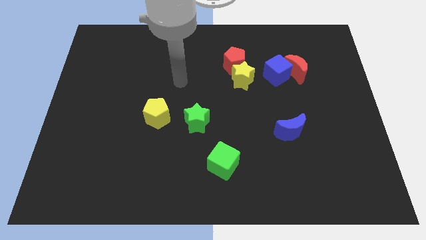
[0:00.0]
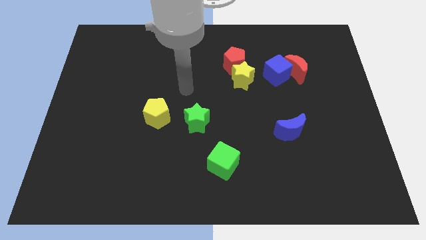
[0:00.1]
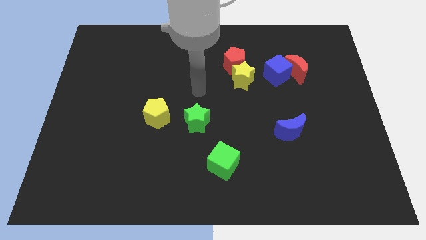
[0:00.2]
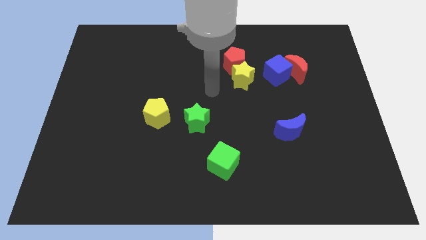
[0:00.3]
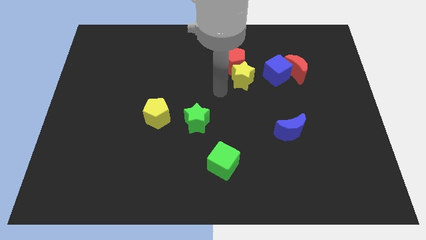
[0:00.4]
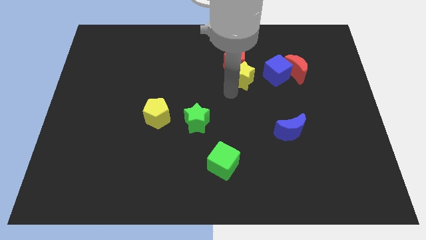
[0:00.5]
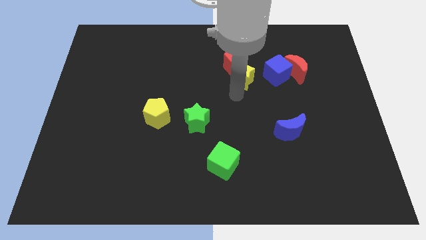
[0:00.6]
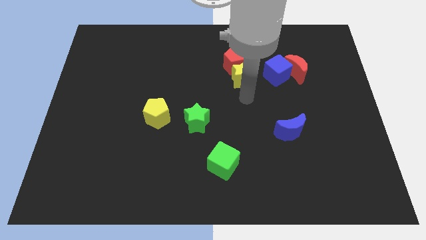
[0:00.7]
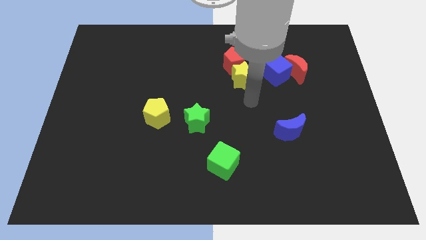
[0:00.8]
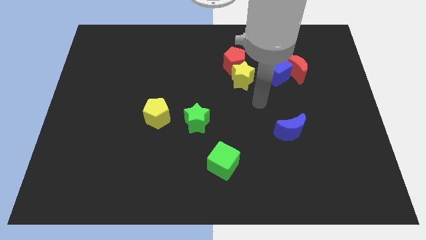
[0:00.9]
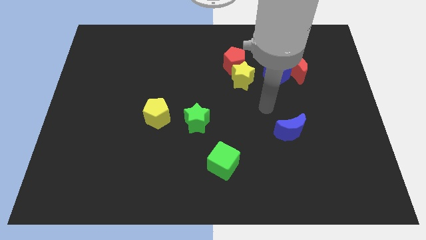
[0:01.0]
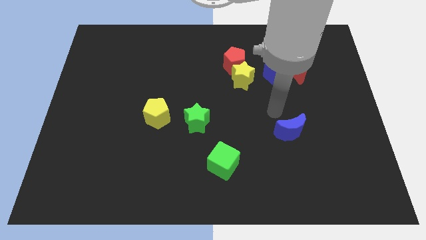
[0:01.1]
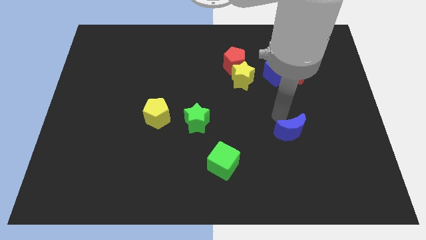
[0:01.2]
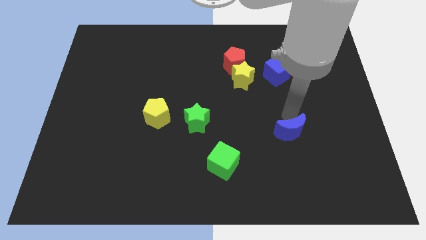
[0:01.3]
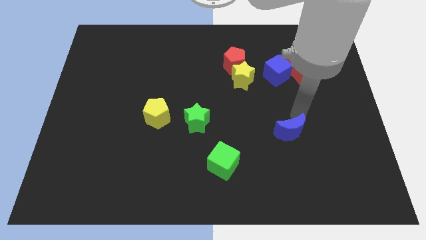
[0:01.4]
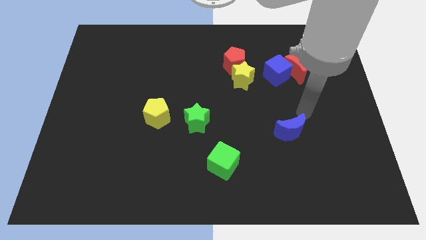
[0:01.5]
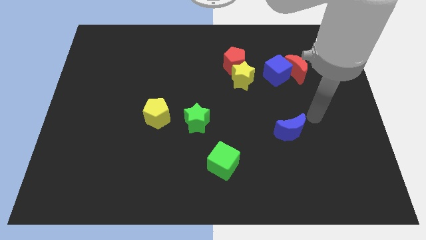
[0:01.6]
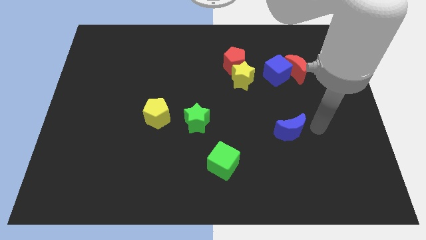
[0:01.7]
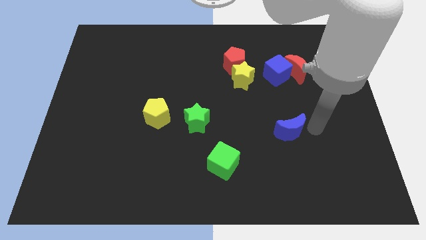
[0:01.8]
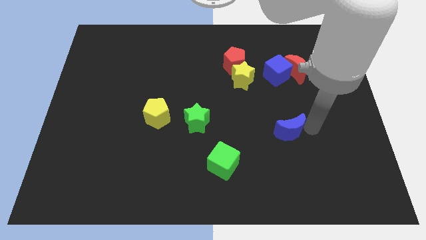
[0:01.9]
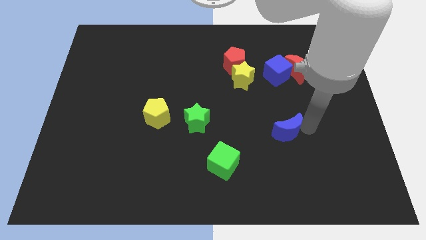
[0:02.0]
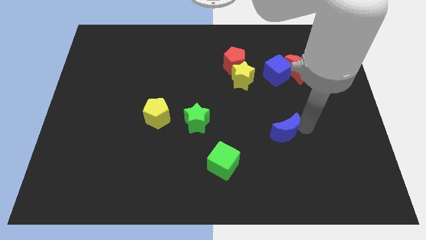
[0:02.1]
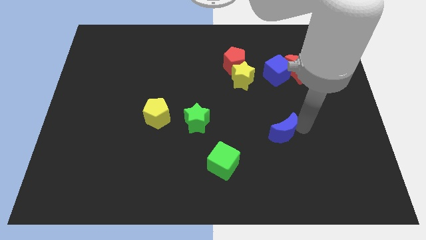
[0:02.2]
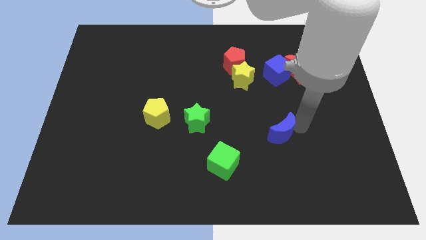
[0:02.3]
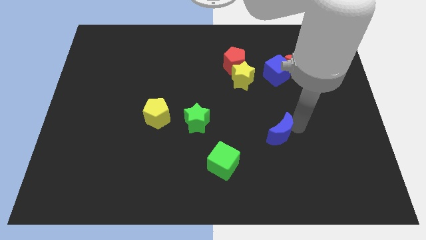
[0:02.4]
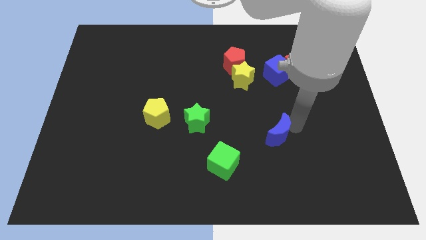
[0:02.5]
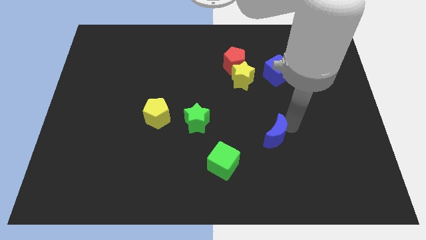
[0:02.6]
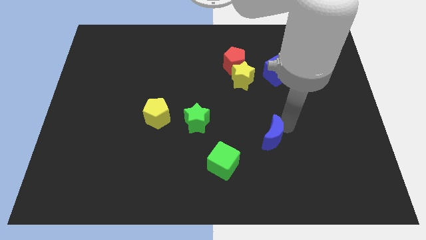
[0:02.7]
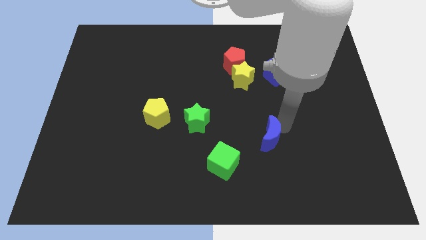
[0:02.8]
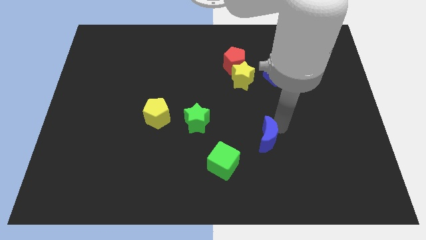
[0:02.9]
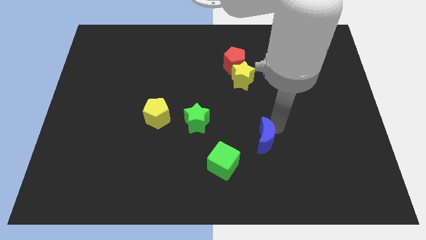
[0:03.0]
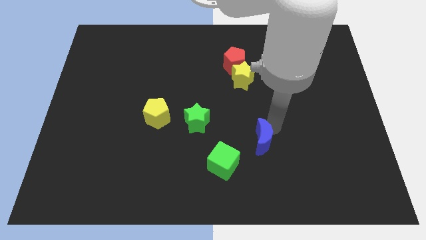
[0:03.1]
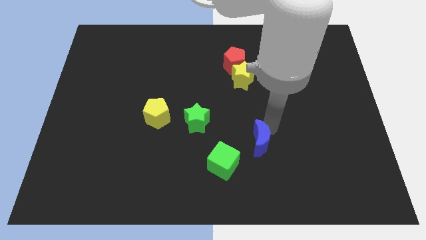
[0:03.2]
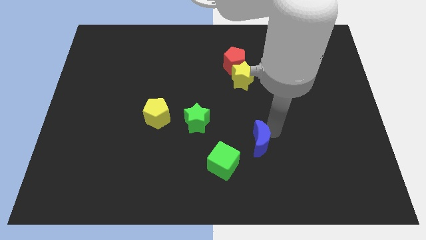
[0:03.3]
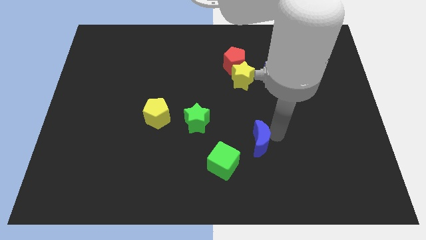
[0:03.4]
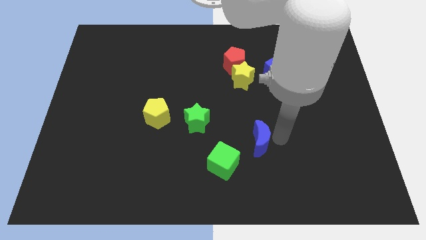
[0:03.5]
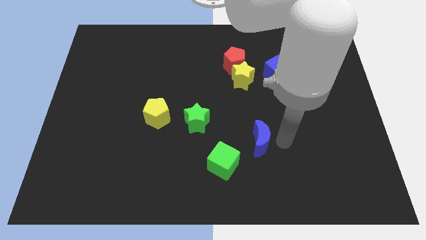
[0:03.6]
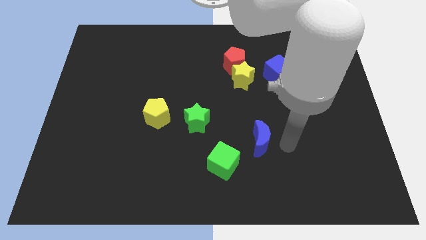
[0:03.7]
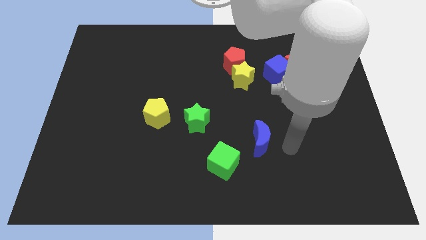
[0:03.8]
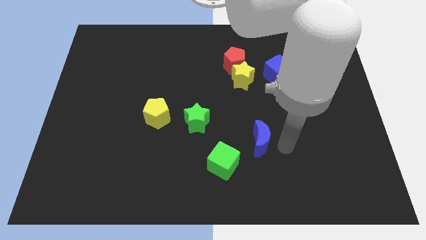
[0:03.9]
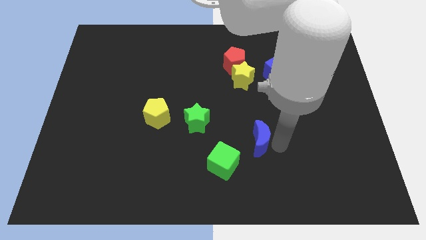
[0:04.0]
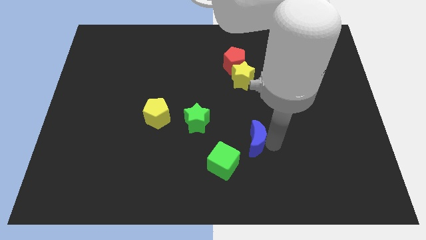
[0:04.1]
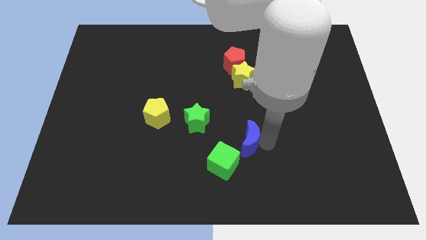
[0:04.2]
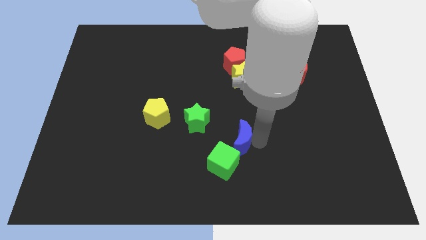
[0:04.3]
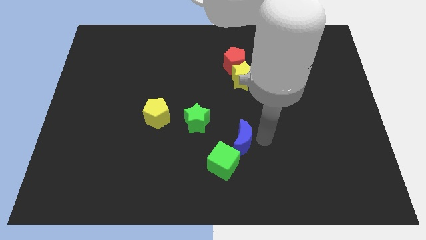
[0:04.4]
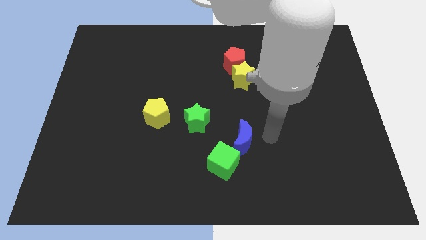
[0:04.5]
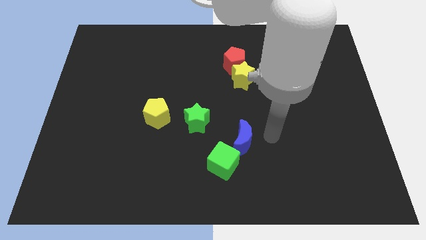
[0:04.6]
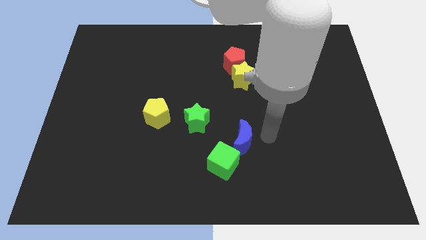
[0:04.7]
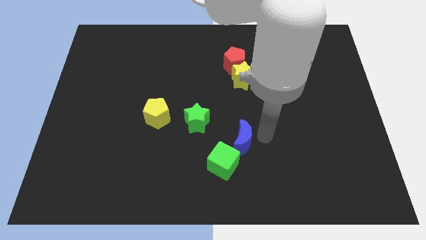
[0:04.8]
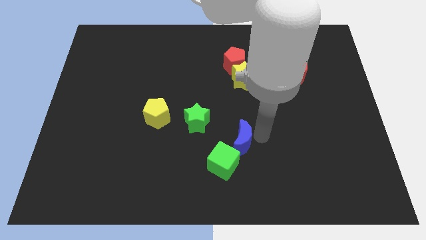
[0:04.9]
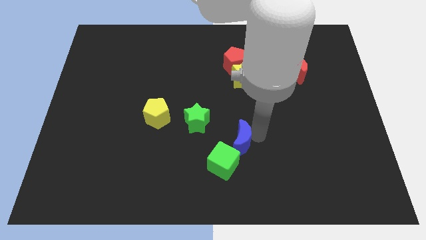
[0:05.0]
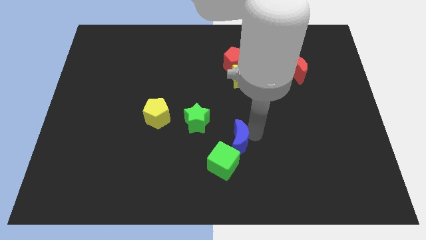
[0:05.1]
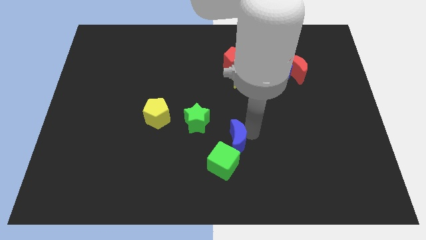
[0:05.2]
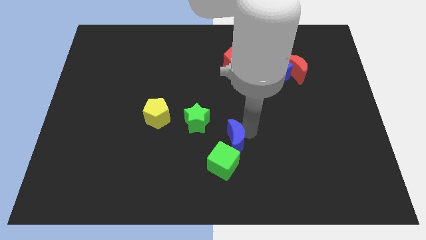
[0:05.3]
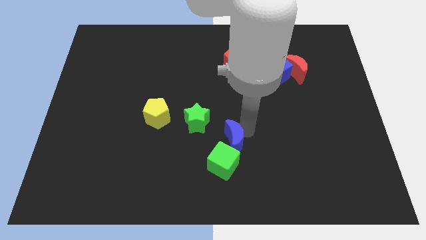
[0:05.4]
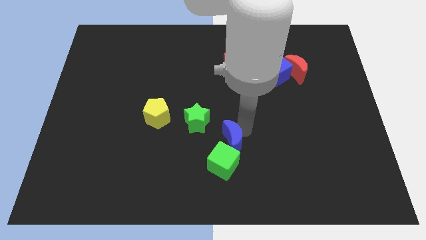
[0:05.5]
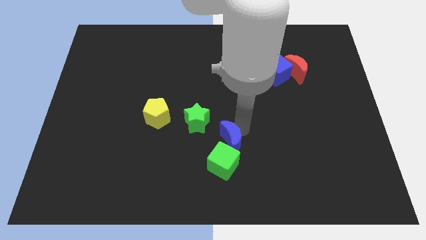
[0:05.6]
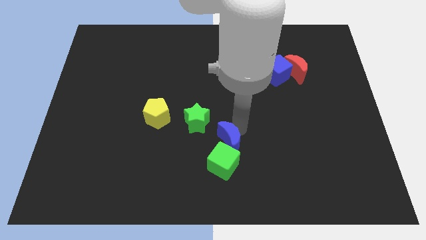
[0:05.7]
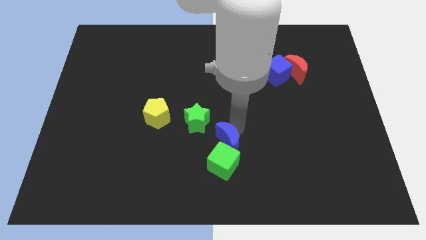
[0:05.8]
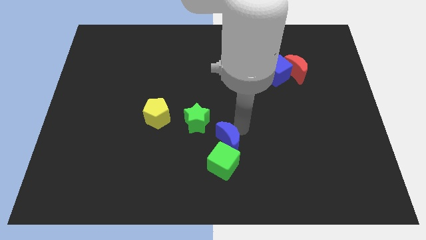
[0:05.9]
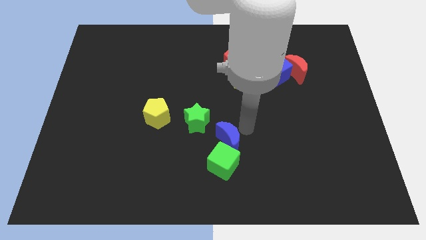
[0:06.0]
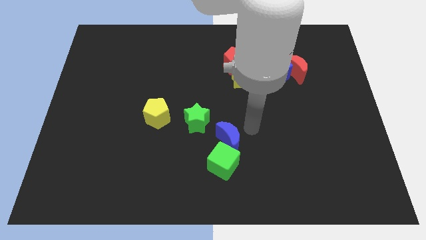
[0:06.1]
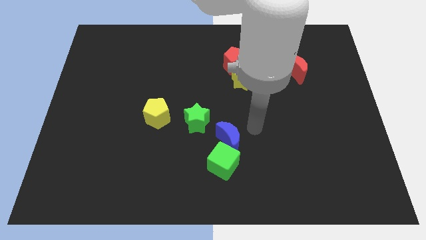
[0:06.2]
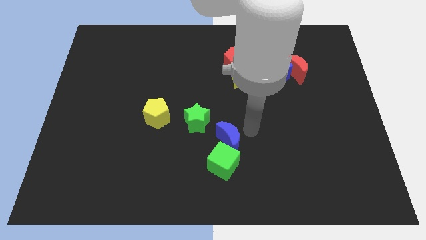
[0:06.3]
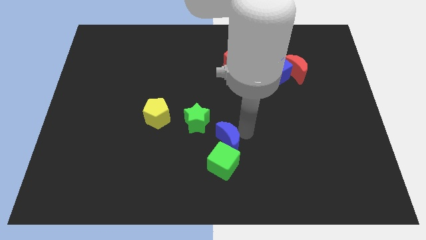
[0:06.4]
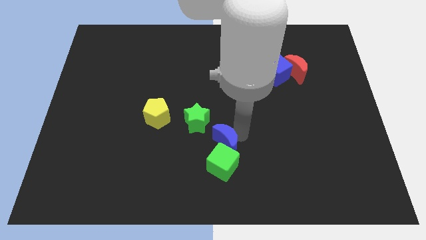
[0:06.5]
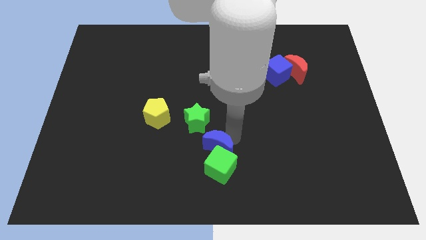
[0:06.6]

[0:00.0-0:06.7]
push the blue moon to the bottom of the green star
